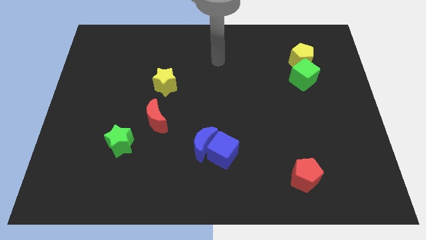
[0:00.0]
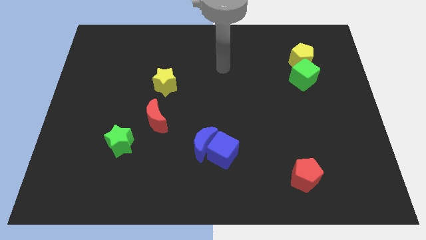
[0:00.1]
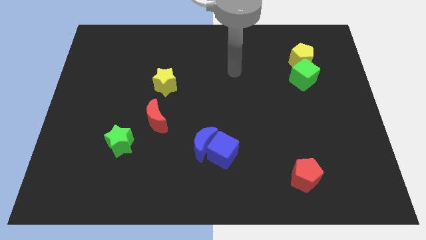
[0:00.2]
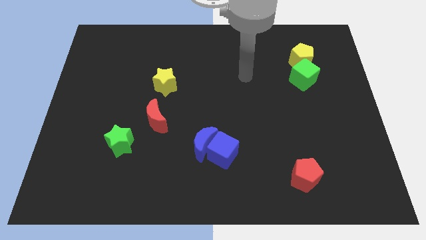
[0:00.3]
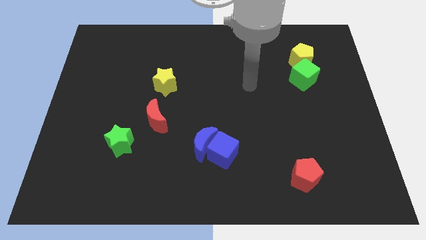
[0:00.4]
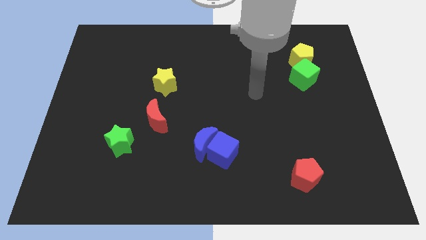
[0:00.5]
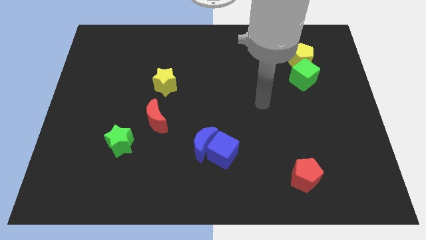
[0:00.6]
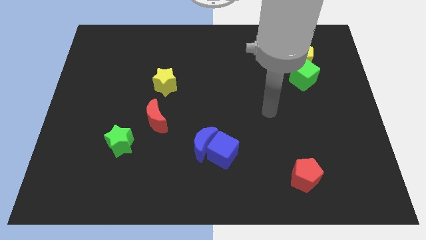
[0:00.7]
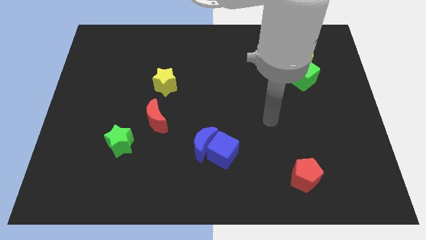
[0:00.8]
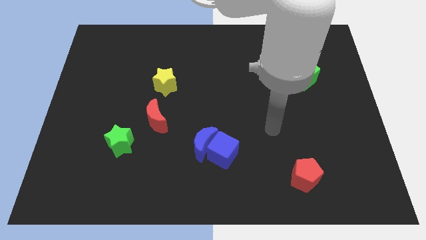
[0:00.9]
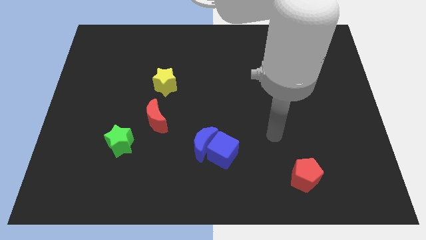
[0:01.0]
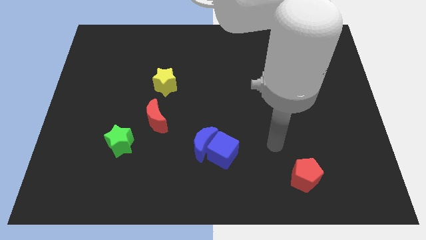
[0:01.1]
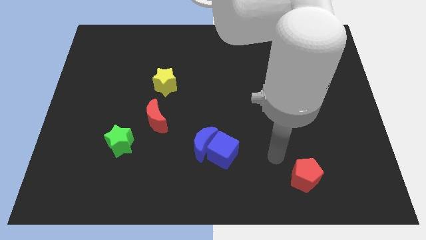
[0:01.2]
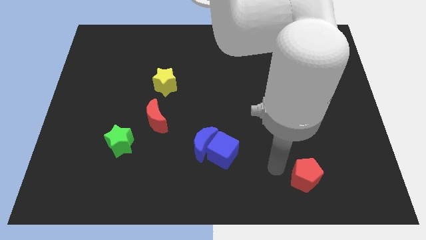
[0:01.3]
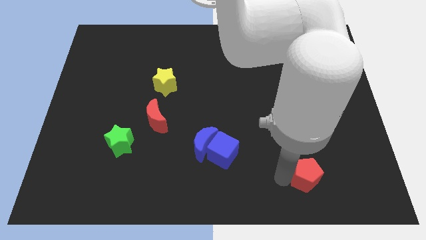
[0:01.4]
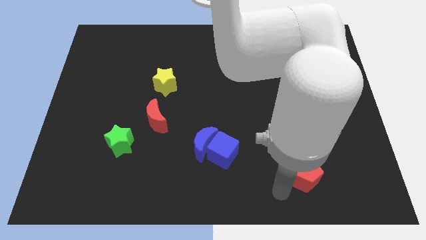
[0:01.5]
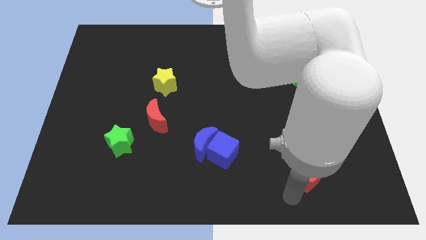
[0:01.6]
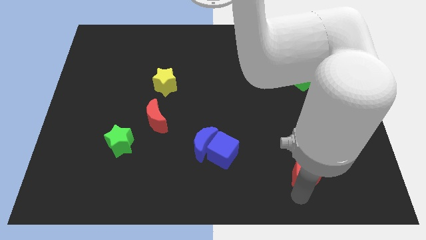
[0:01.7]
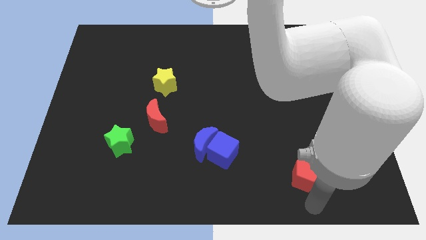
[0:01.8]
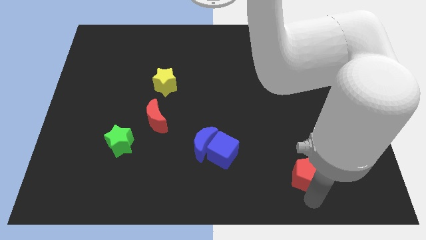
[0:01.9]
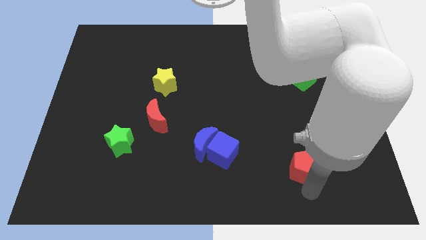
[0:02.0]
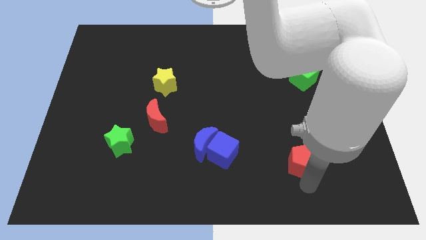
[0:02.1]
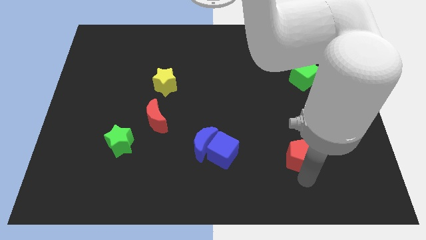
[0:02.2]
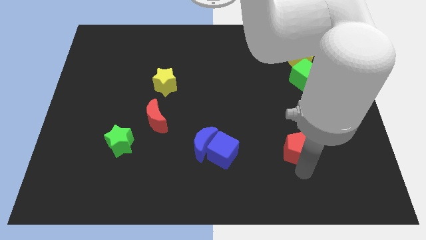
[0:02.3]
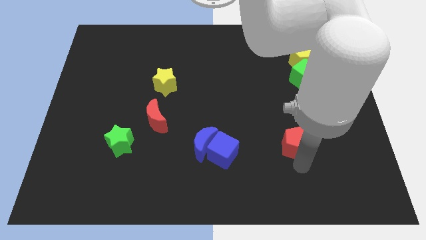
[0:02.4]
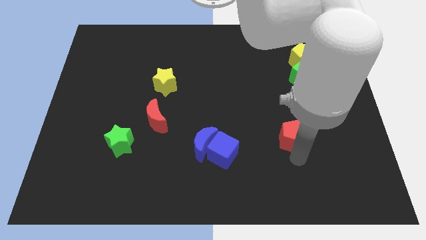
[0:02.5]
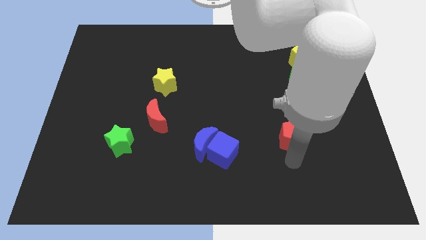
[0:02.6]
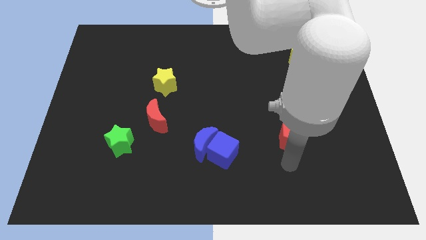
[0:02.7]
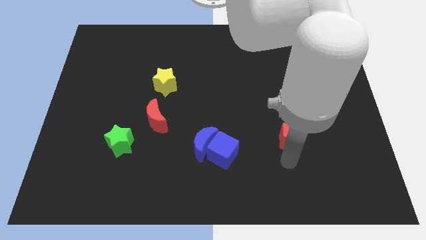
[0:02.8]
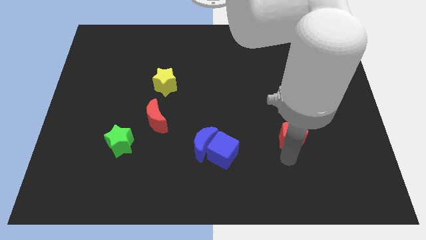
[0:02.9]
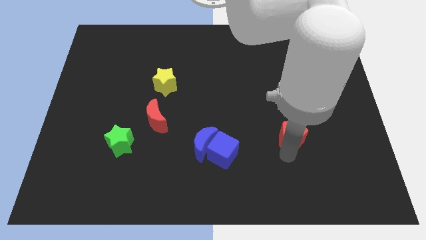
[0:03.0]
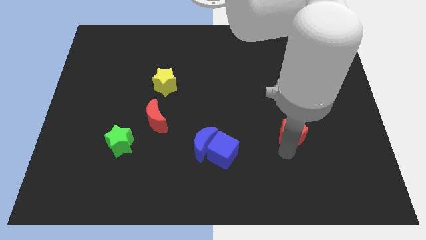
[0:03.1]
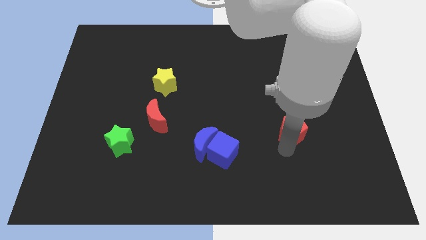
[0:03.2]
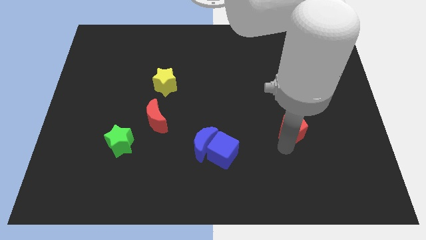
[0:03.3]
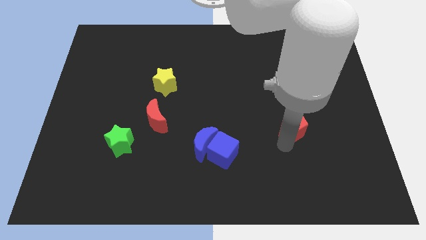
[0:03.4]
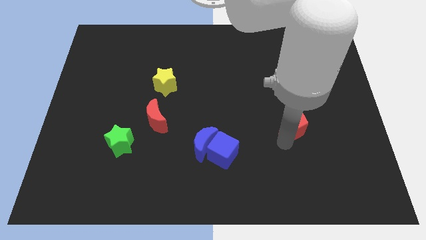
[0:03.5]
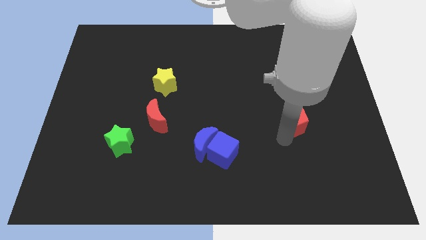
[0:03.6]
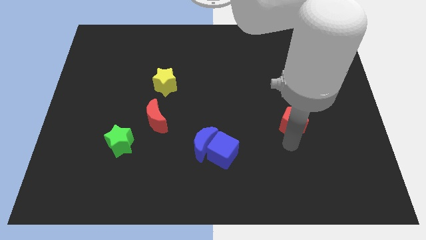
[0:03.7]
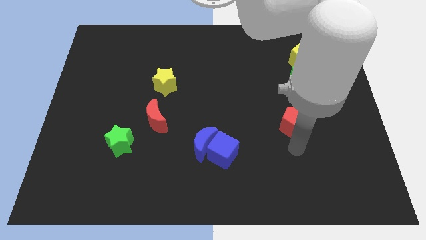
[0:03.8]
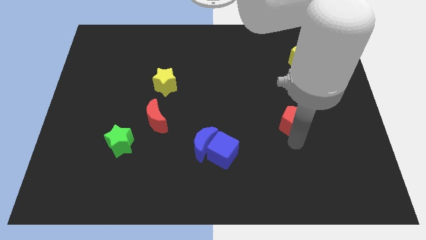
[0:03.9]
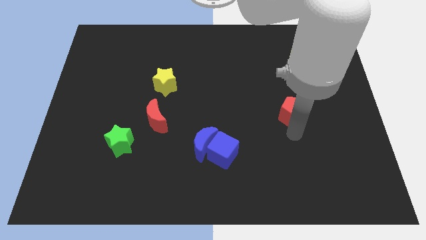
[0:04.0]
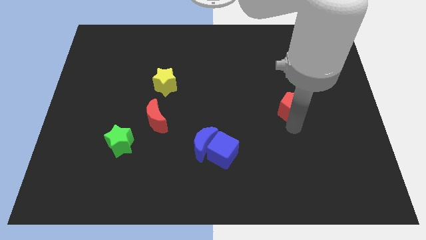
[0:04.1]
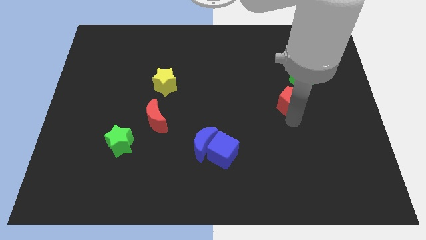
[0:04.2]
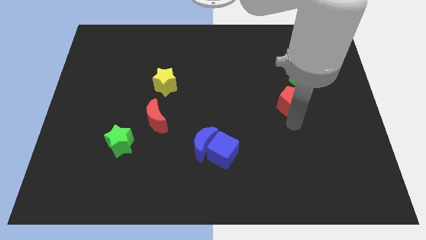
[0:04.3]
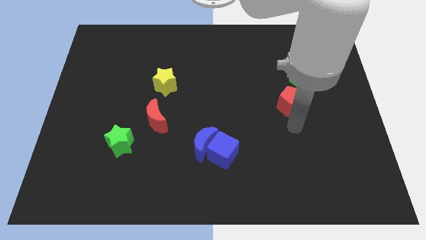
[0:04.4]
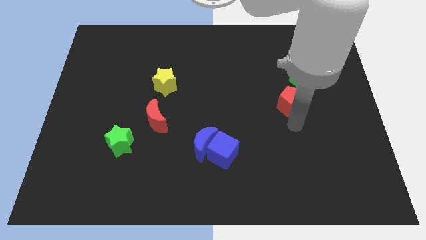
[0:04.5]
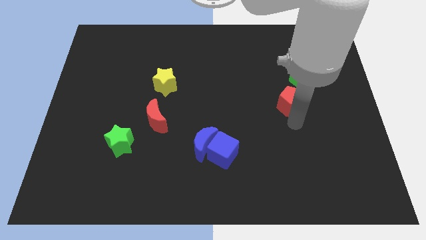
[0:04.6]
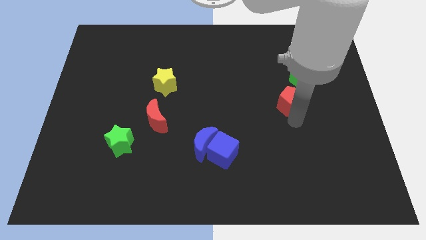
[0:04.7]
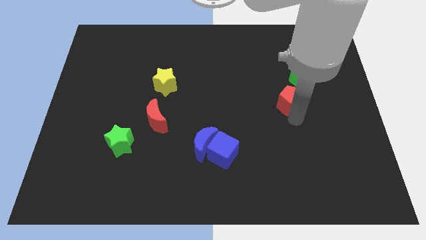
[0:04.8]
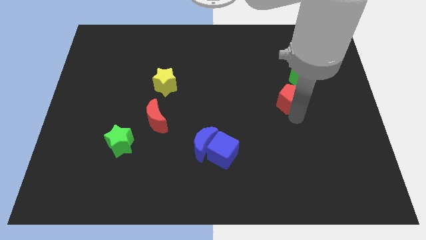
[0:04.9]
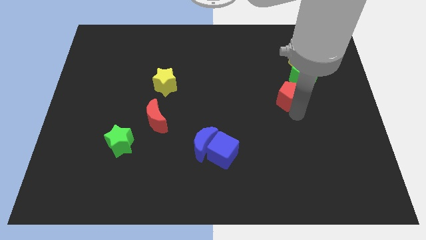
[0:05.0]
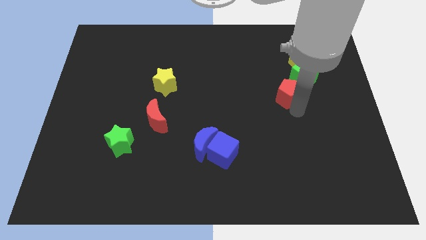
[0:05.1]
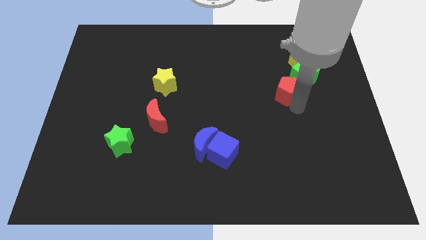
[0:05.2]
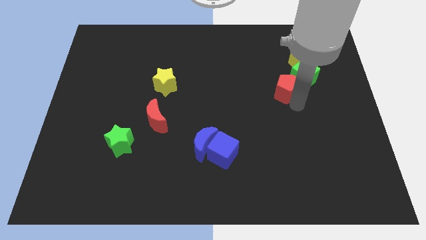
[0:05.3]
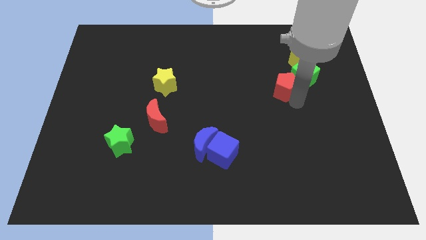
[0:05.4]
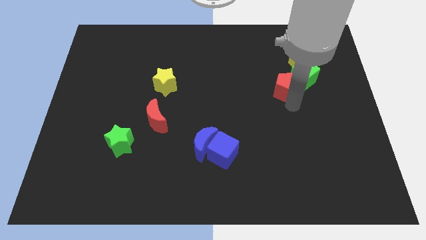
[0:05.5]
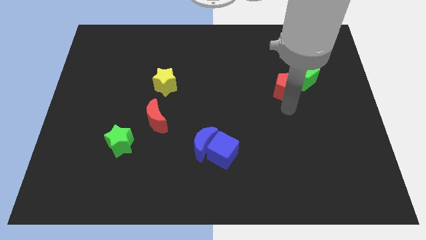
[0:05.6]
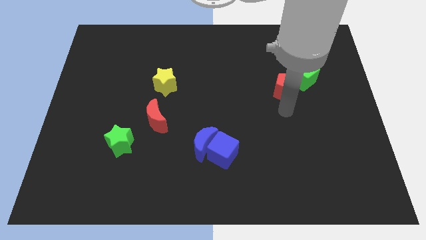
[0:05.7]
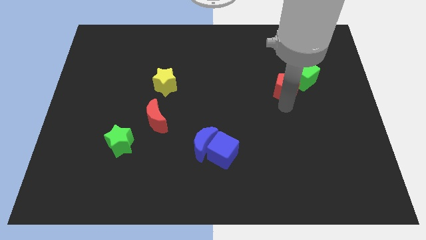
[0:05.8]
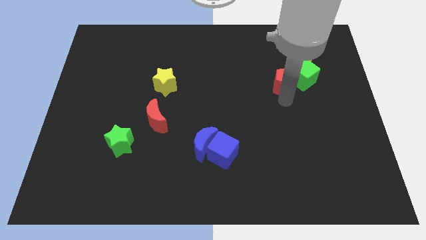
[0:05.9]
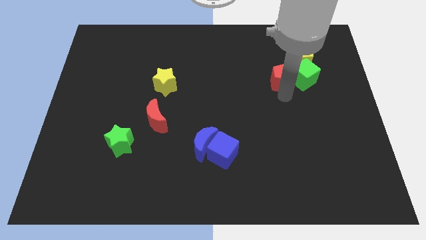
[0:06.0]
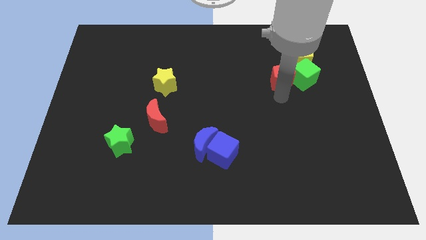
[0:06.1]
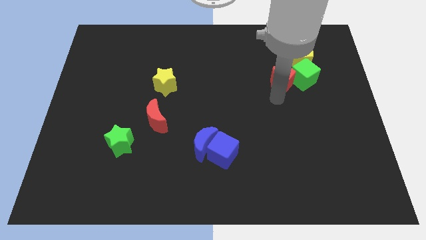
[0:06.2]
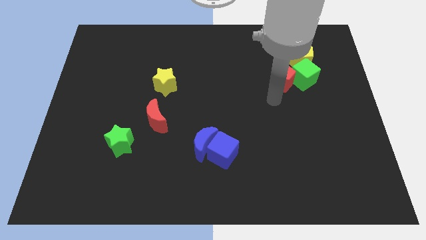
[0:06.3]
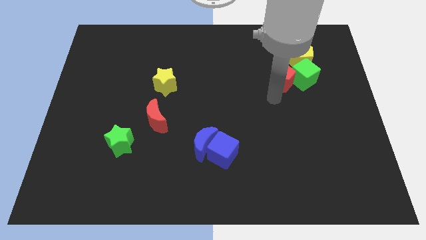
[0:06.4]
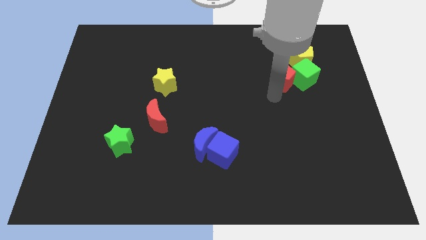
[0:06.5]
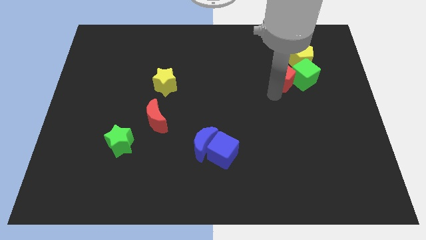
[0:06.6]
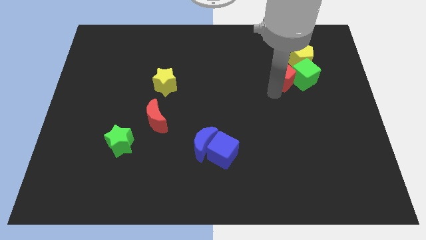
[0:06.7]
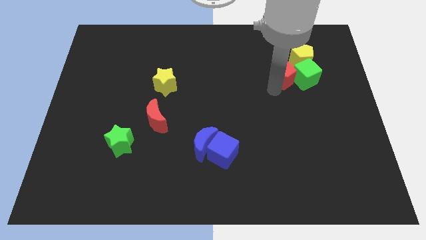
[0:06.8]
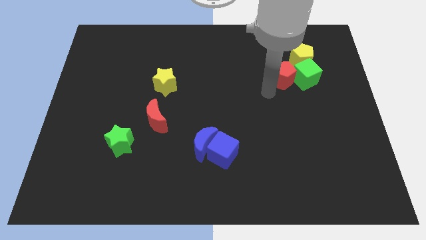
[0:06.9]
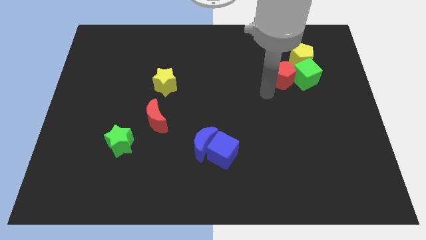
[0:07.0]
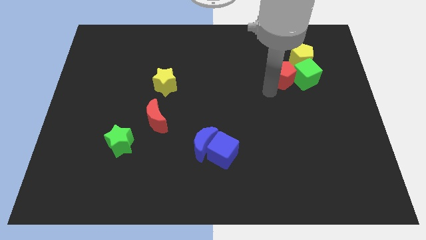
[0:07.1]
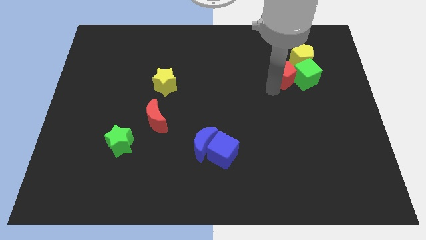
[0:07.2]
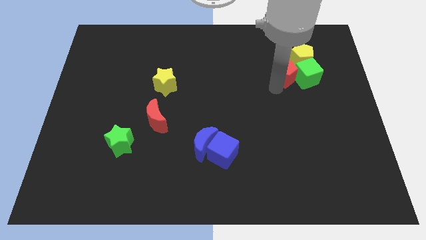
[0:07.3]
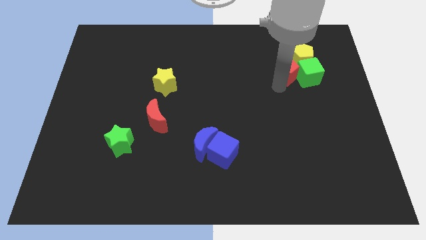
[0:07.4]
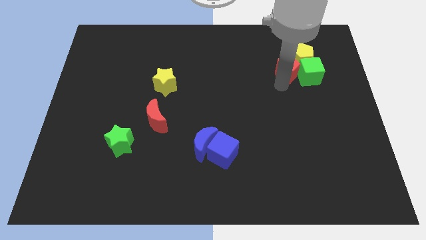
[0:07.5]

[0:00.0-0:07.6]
slide the red pentagon next to the yellow pentagon
